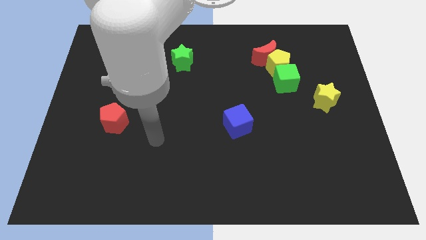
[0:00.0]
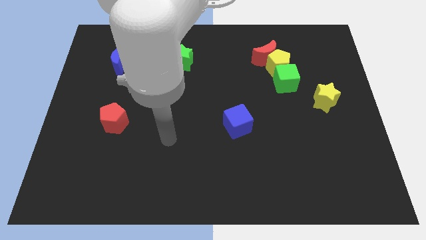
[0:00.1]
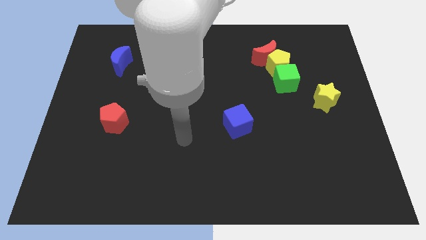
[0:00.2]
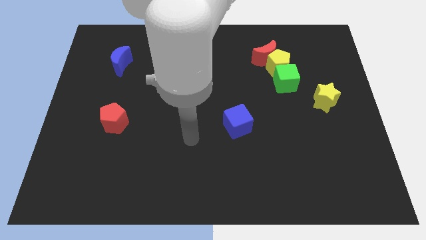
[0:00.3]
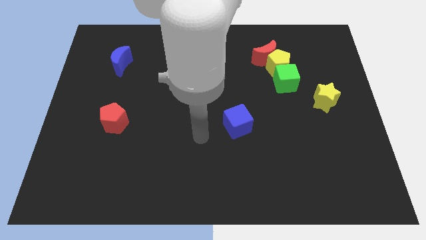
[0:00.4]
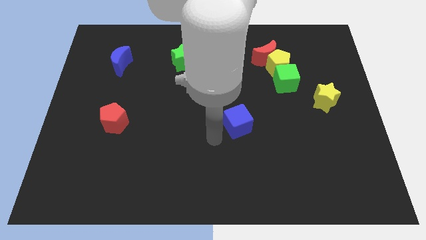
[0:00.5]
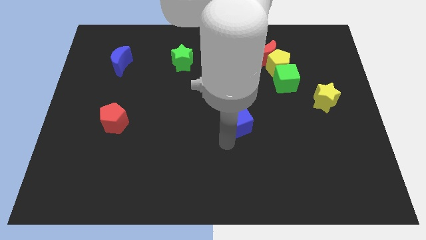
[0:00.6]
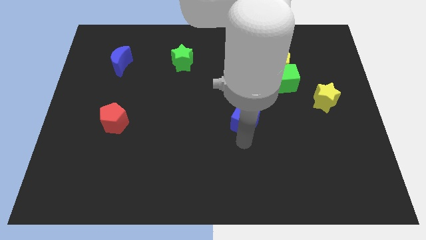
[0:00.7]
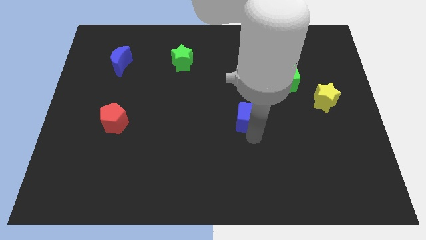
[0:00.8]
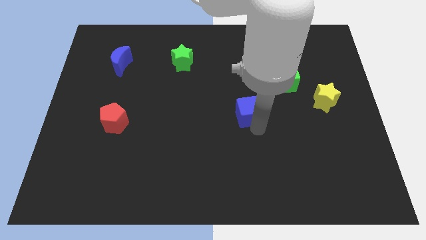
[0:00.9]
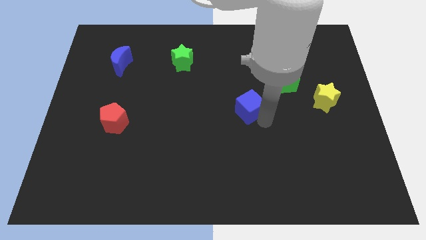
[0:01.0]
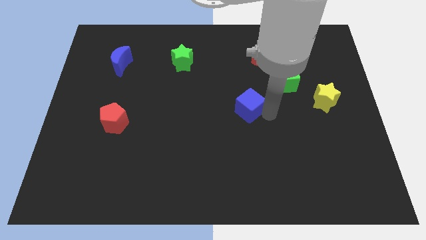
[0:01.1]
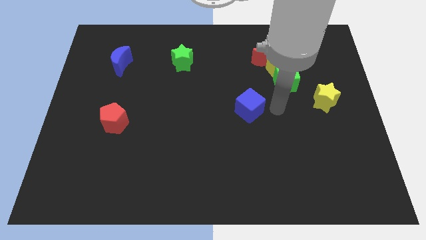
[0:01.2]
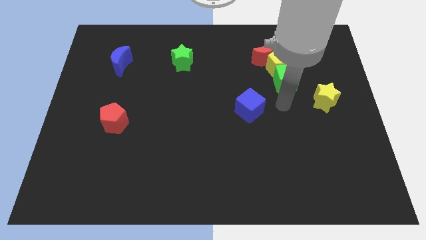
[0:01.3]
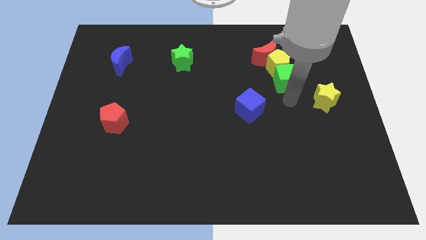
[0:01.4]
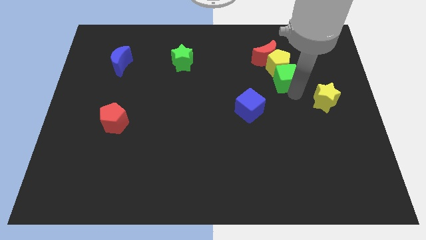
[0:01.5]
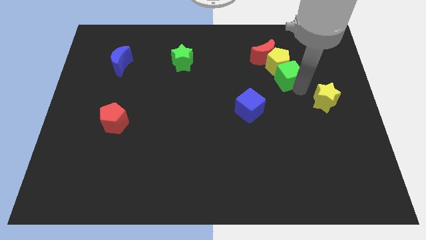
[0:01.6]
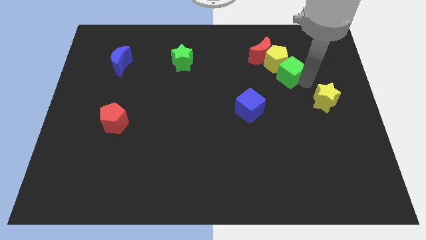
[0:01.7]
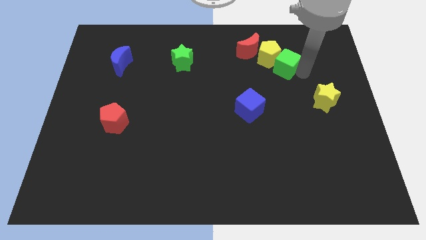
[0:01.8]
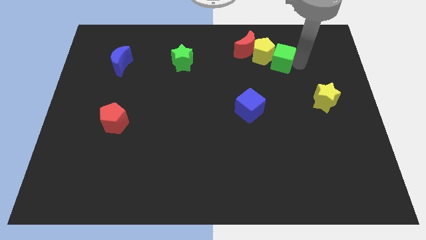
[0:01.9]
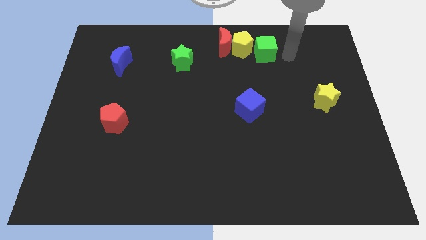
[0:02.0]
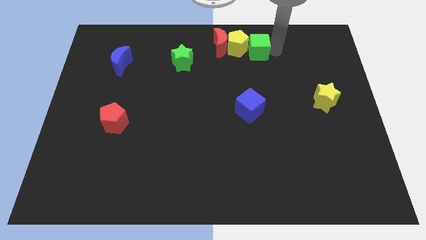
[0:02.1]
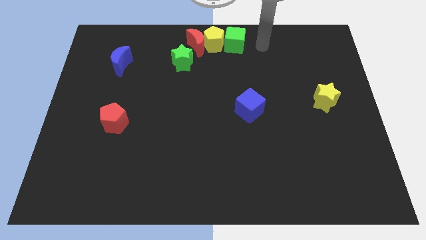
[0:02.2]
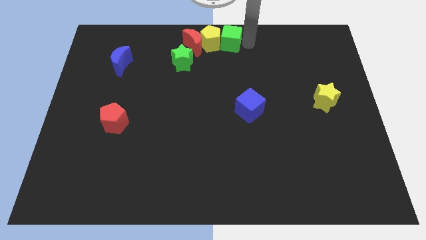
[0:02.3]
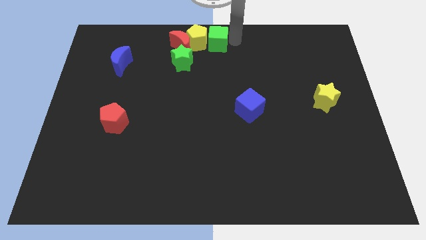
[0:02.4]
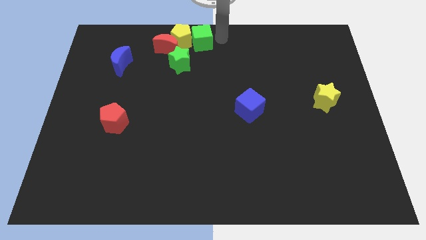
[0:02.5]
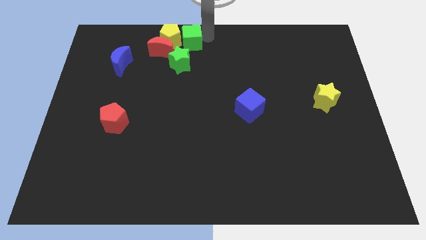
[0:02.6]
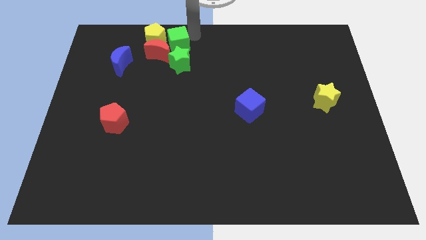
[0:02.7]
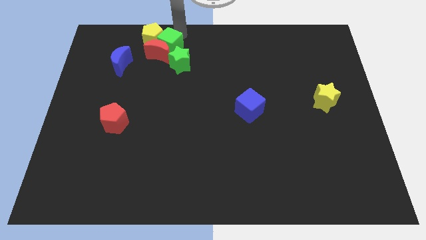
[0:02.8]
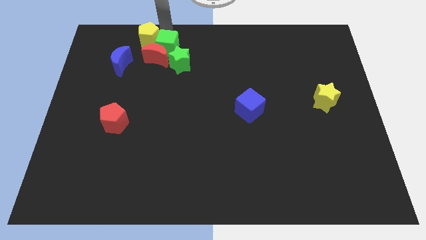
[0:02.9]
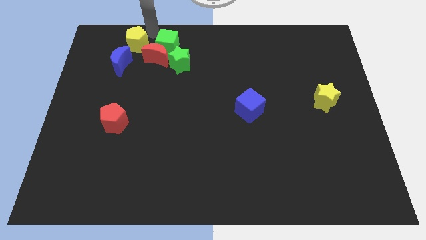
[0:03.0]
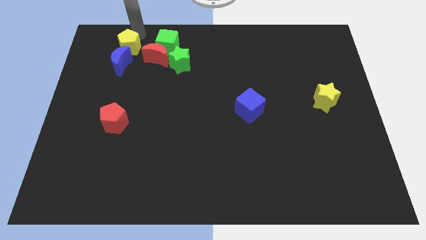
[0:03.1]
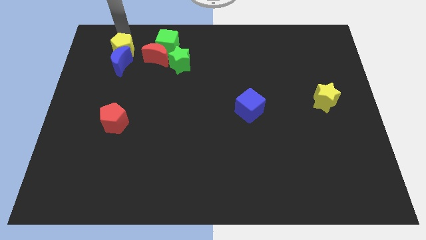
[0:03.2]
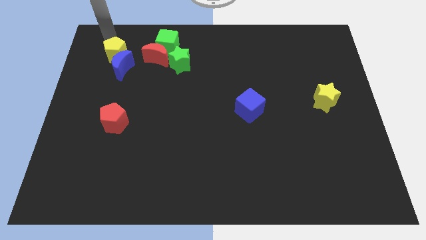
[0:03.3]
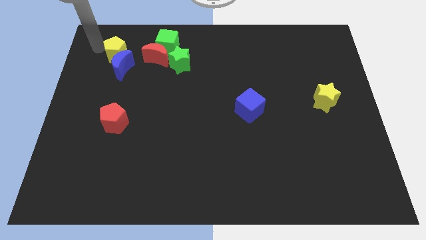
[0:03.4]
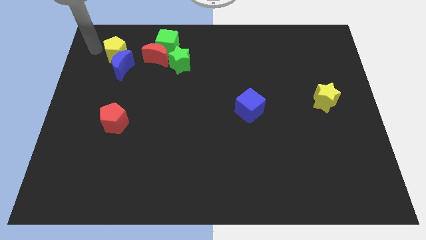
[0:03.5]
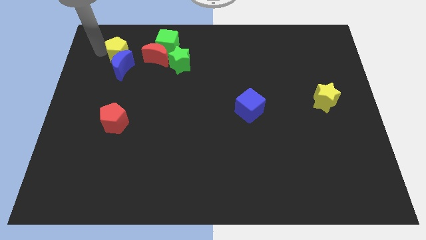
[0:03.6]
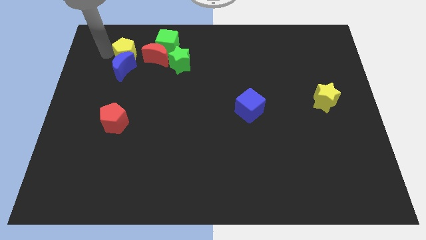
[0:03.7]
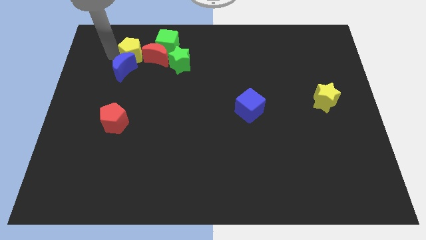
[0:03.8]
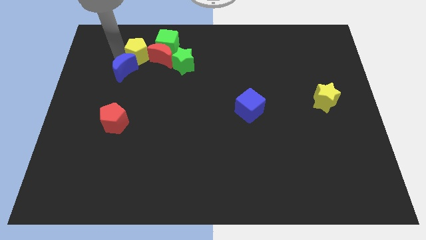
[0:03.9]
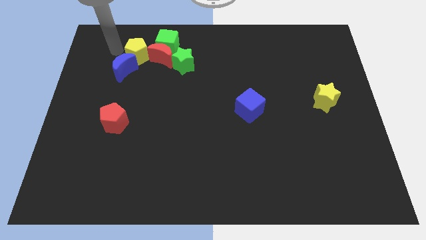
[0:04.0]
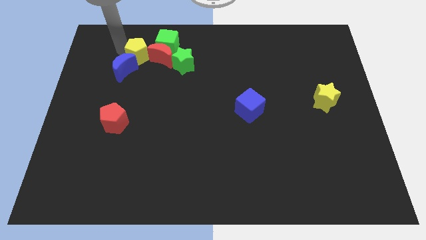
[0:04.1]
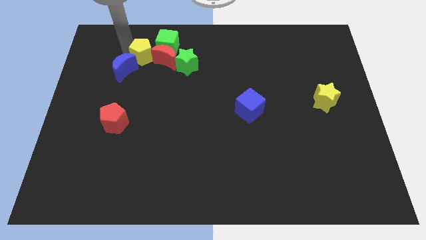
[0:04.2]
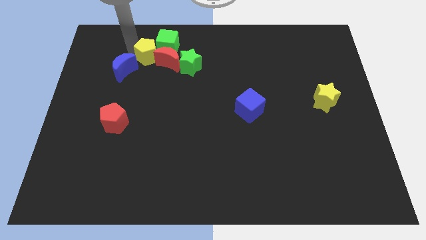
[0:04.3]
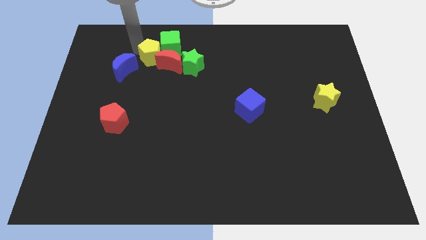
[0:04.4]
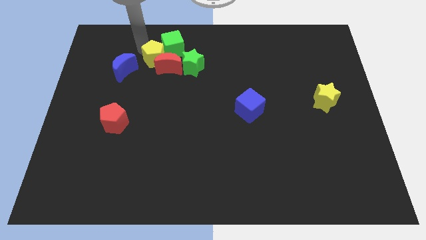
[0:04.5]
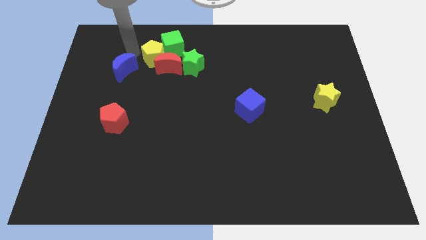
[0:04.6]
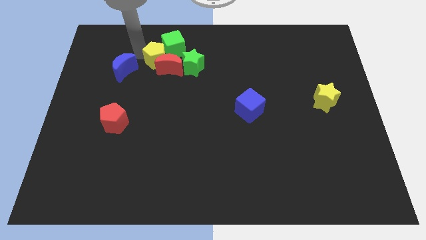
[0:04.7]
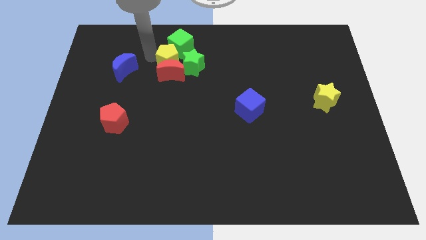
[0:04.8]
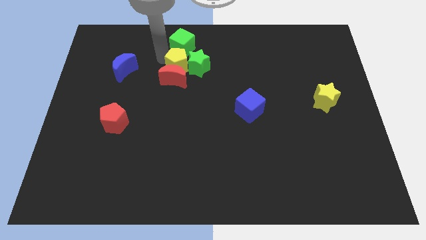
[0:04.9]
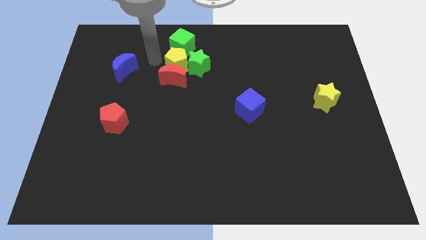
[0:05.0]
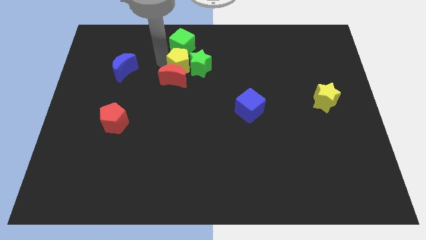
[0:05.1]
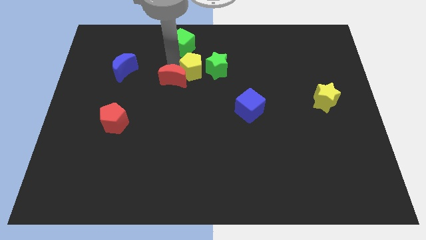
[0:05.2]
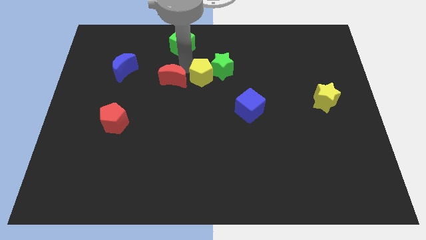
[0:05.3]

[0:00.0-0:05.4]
slightly move the yellow pentagon diagonally down and left

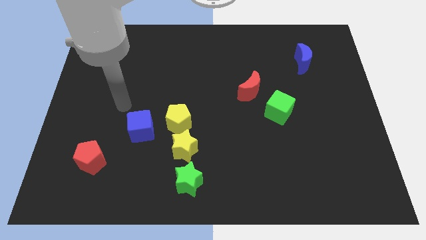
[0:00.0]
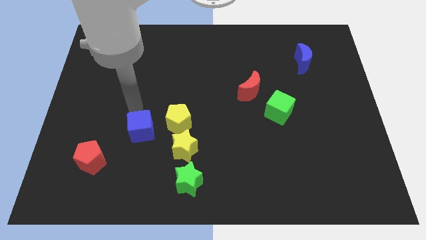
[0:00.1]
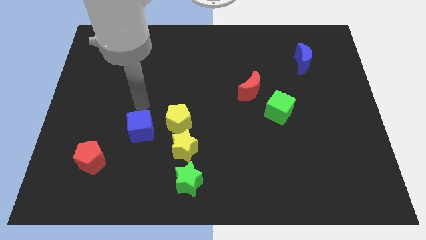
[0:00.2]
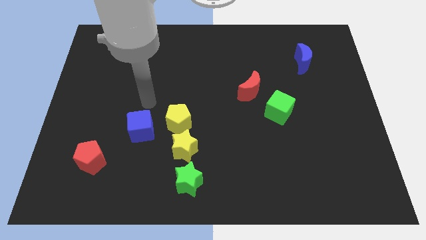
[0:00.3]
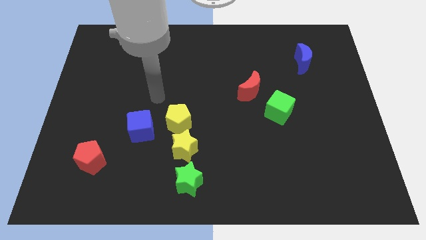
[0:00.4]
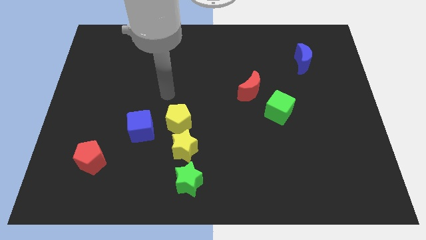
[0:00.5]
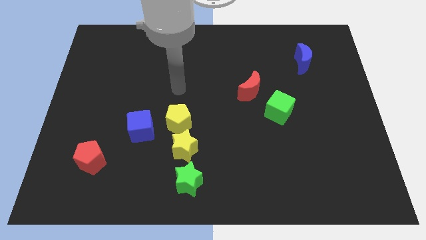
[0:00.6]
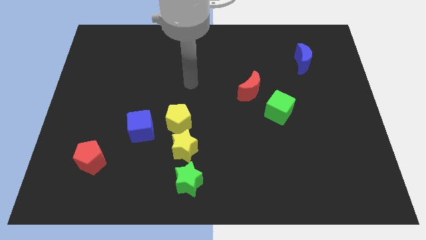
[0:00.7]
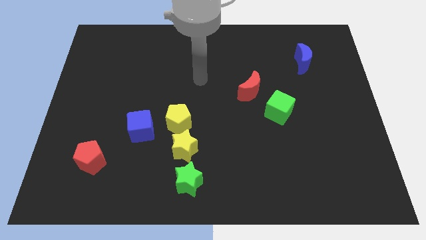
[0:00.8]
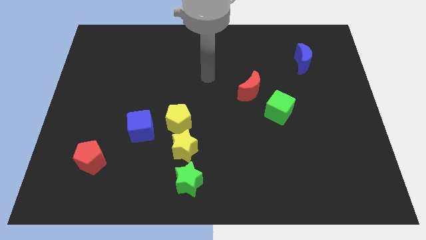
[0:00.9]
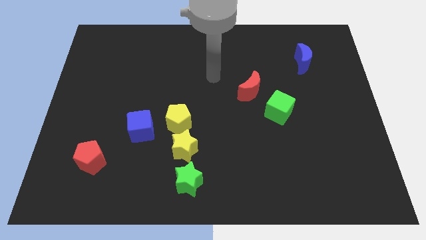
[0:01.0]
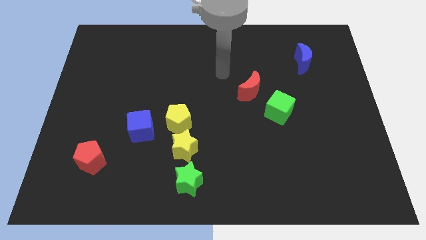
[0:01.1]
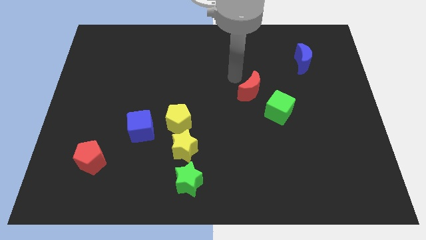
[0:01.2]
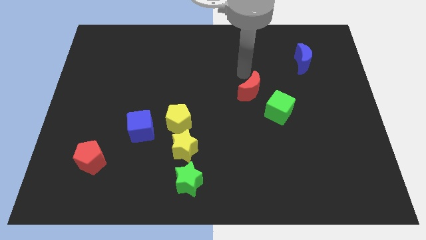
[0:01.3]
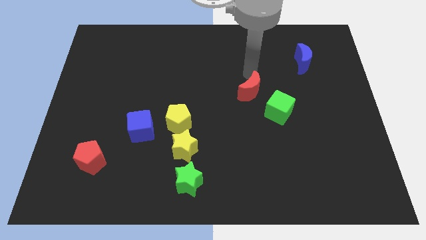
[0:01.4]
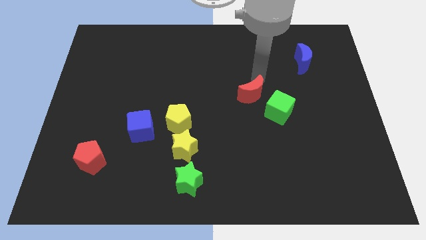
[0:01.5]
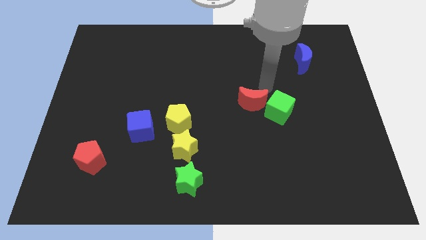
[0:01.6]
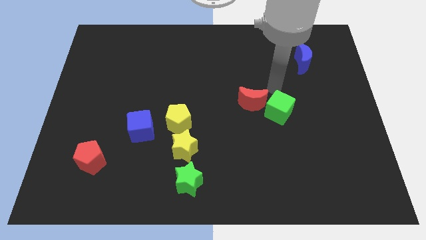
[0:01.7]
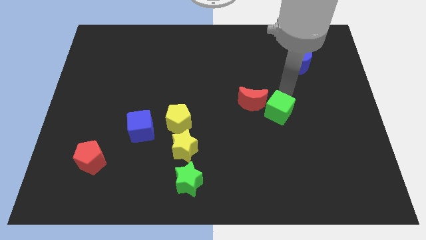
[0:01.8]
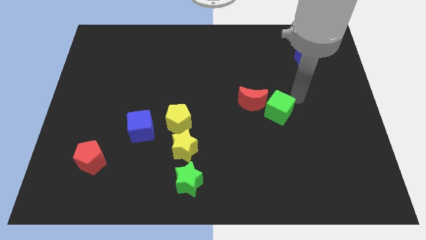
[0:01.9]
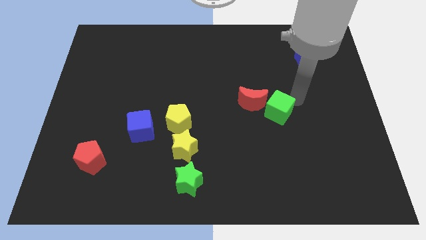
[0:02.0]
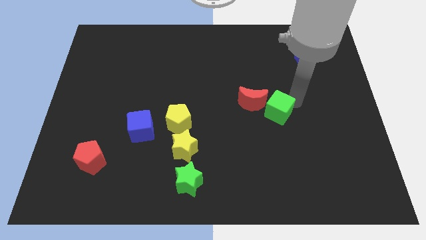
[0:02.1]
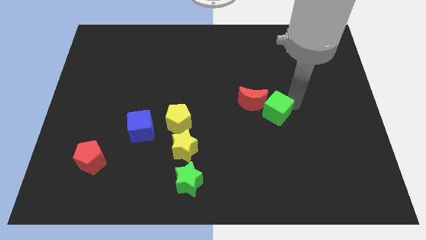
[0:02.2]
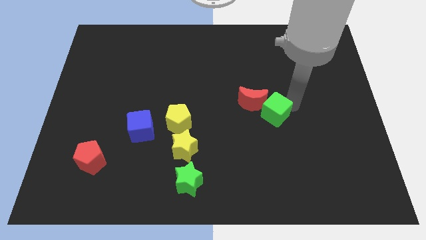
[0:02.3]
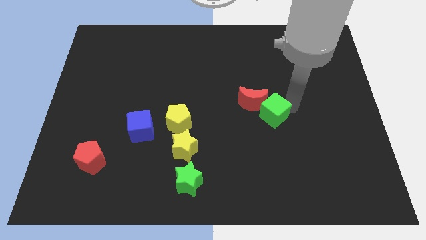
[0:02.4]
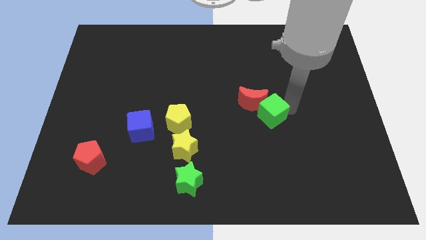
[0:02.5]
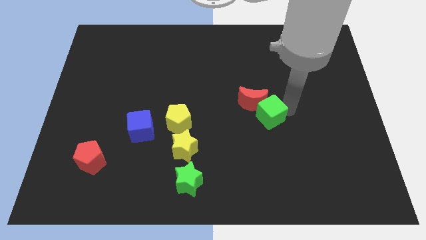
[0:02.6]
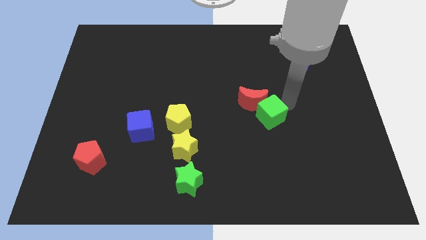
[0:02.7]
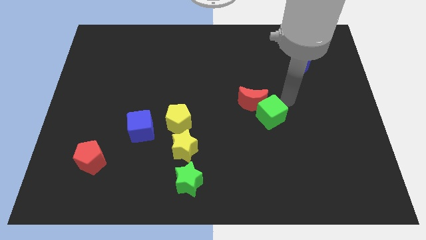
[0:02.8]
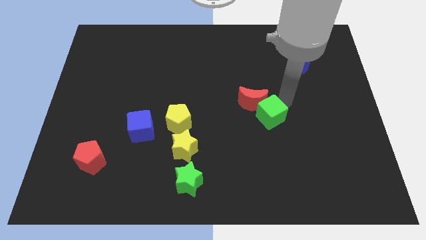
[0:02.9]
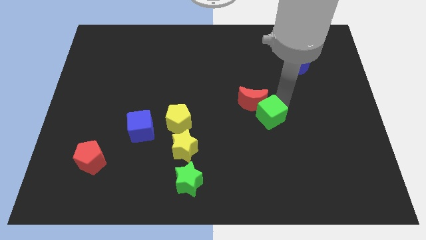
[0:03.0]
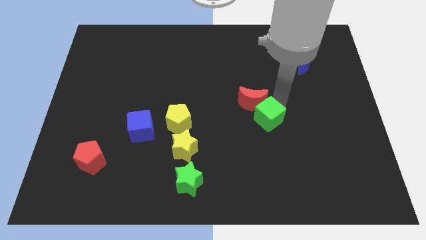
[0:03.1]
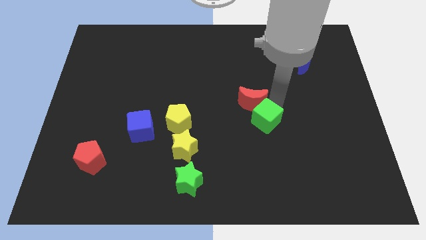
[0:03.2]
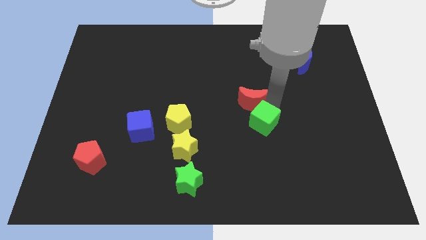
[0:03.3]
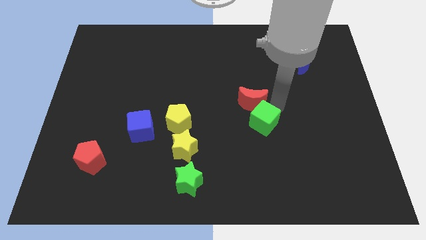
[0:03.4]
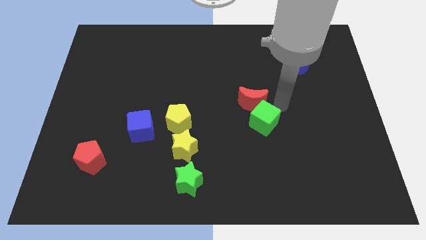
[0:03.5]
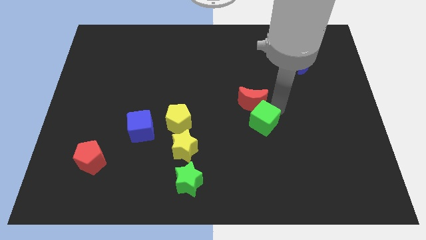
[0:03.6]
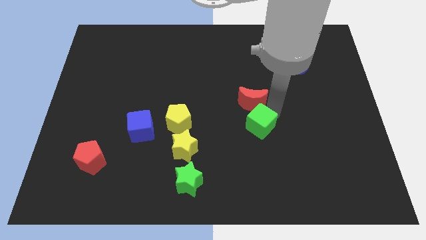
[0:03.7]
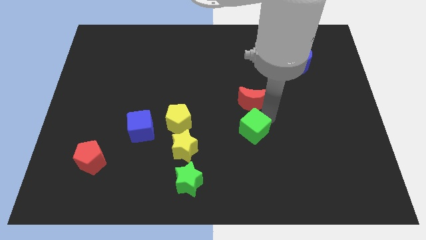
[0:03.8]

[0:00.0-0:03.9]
slightly push the green cube downwards and then to the left
